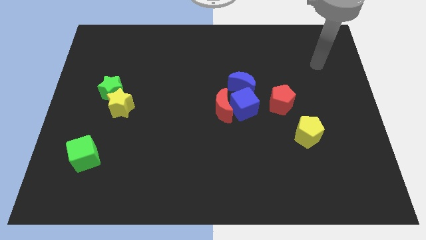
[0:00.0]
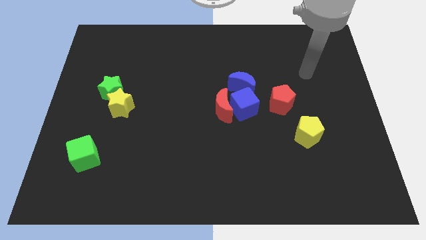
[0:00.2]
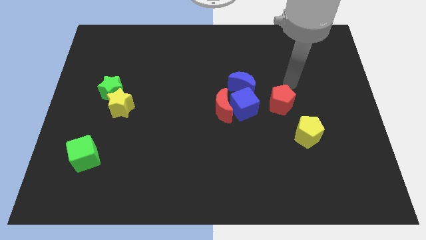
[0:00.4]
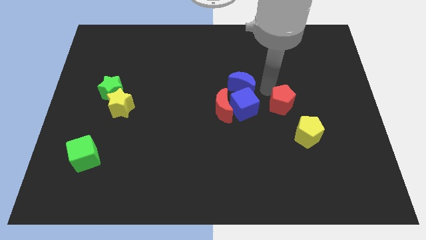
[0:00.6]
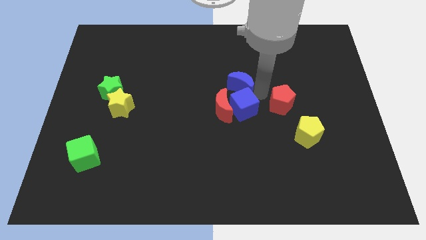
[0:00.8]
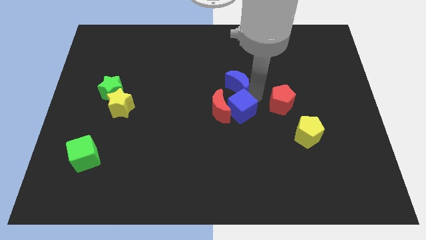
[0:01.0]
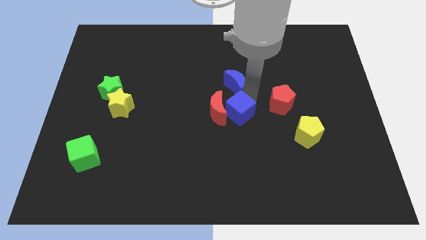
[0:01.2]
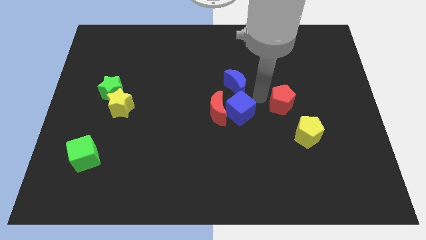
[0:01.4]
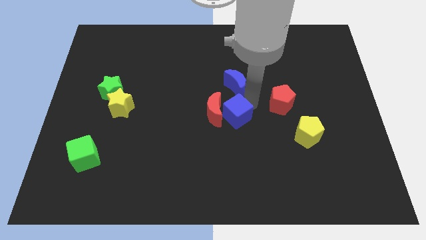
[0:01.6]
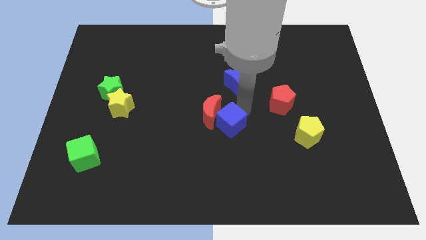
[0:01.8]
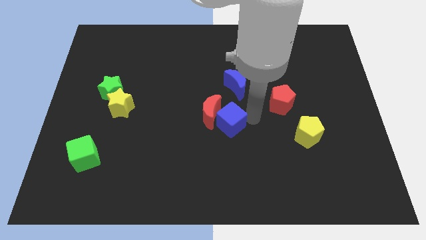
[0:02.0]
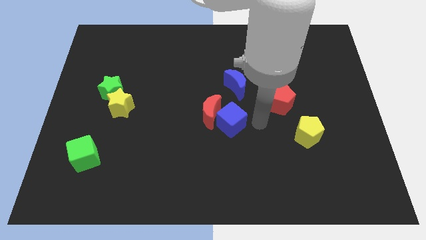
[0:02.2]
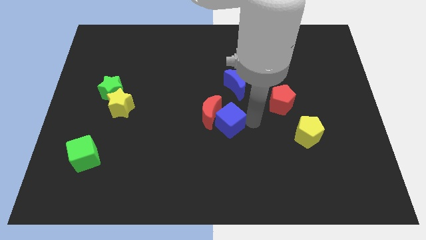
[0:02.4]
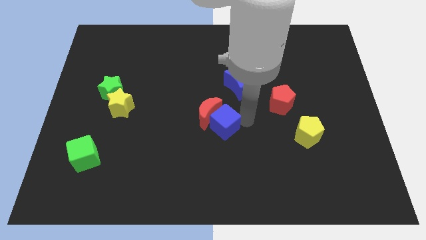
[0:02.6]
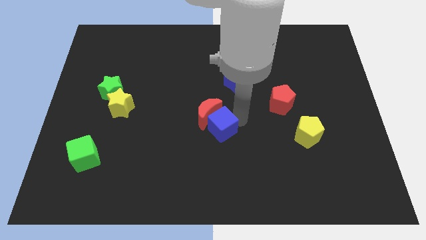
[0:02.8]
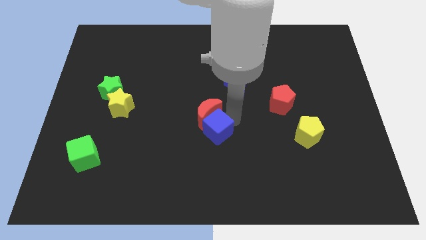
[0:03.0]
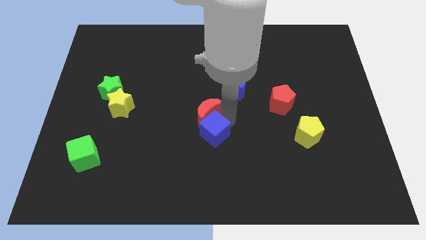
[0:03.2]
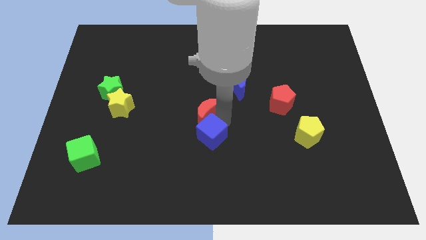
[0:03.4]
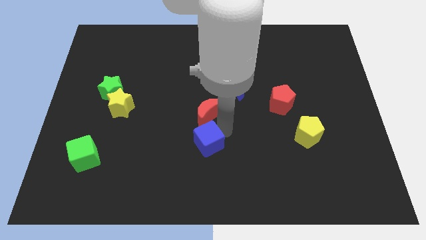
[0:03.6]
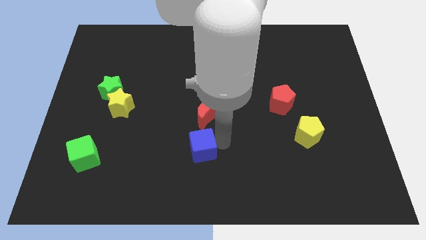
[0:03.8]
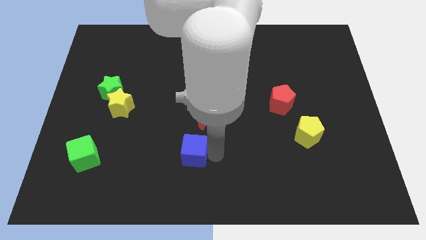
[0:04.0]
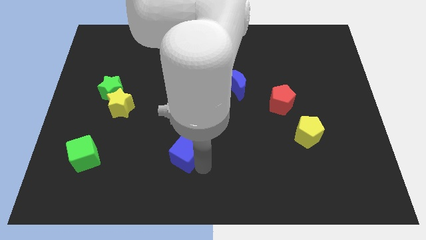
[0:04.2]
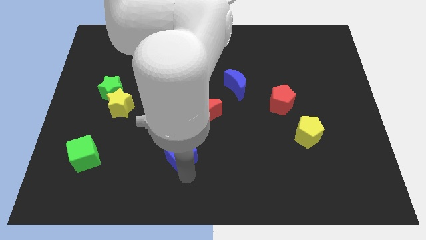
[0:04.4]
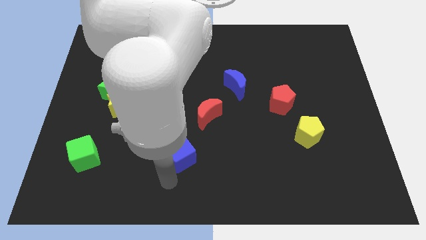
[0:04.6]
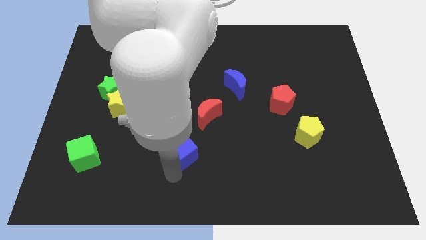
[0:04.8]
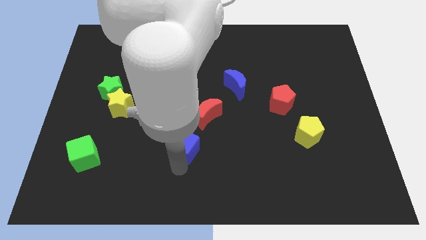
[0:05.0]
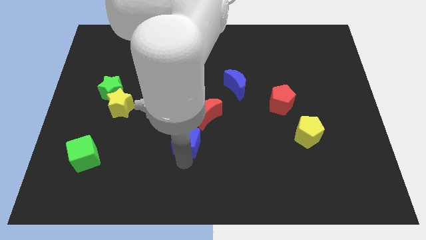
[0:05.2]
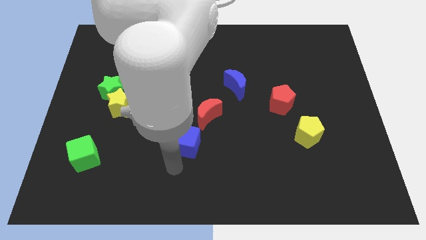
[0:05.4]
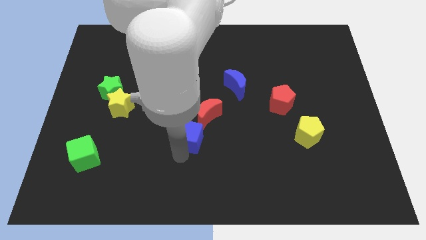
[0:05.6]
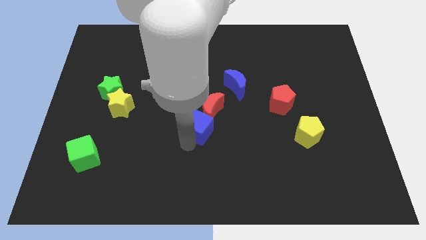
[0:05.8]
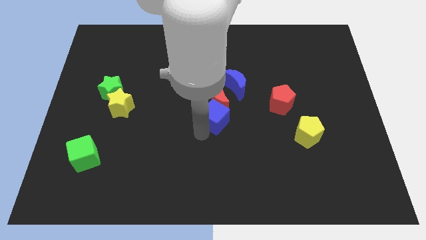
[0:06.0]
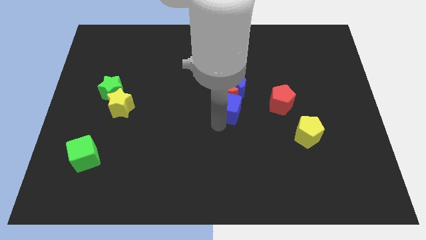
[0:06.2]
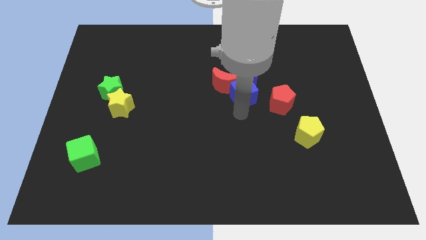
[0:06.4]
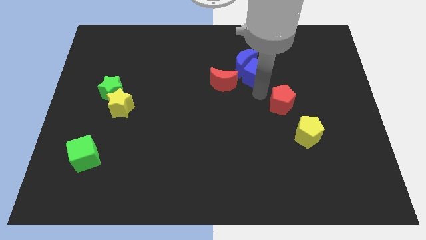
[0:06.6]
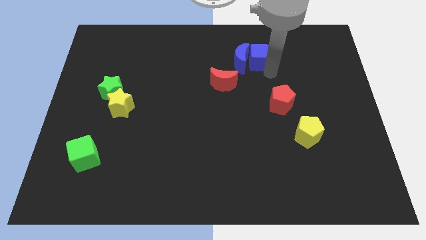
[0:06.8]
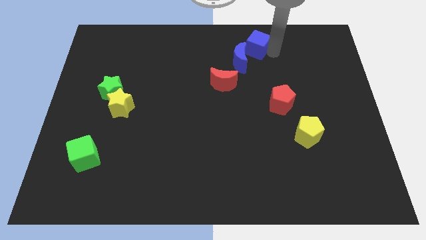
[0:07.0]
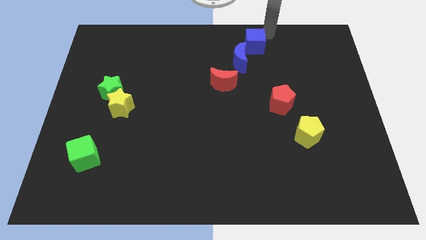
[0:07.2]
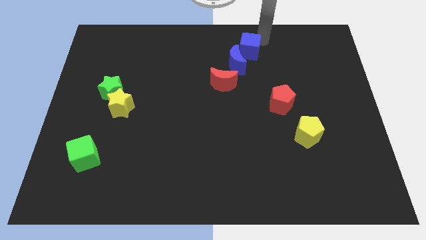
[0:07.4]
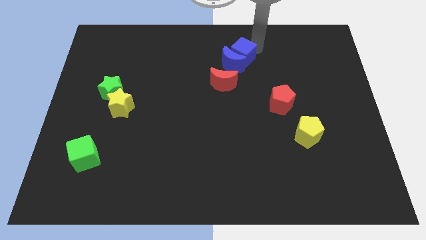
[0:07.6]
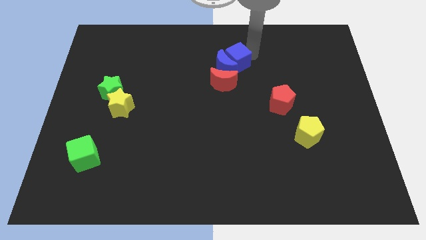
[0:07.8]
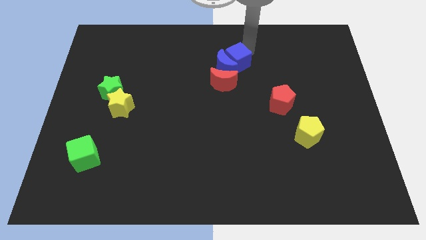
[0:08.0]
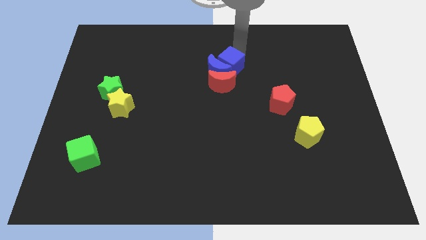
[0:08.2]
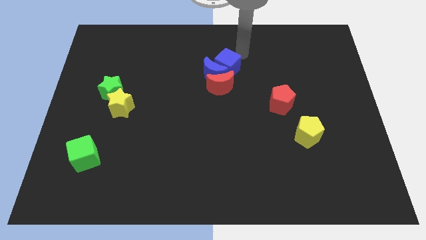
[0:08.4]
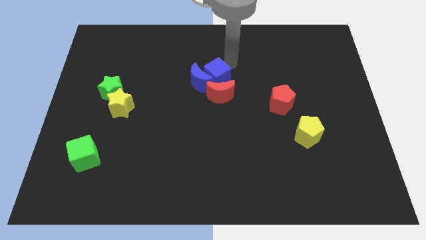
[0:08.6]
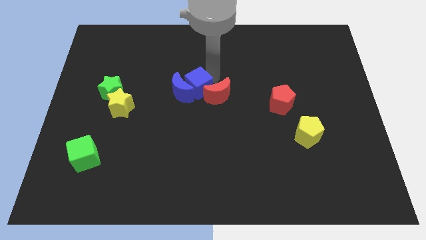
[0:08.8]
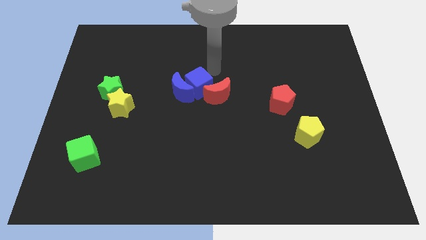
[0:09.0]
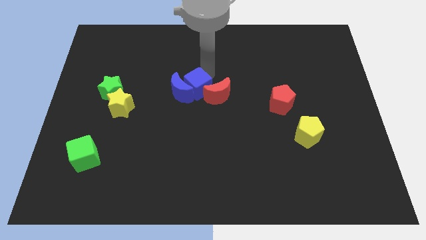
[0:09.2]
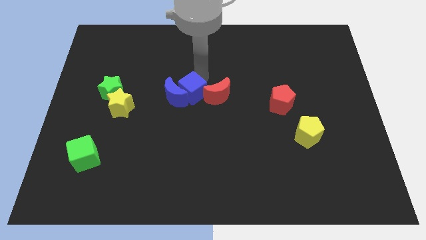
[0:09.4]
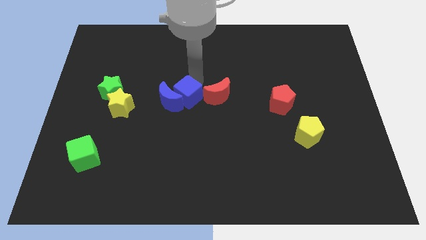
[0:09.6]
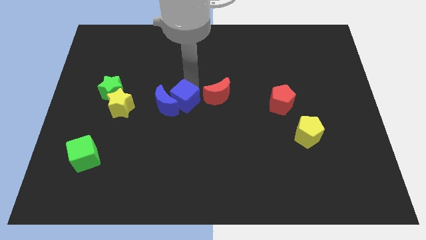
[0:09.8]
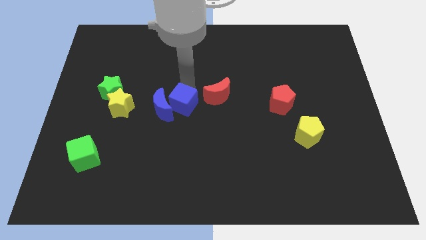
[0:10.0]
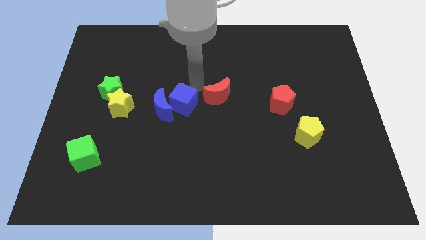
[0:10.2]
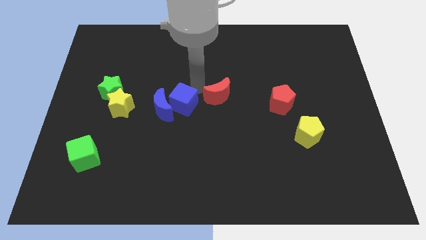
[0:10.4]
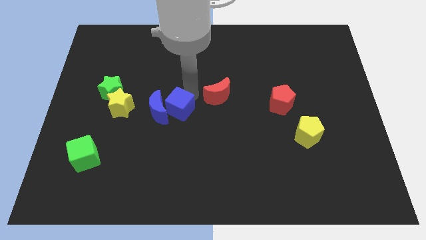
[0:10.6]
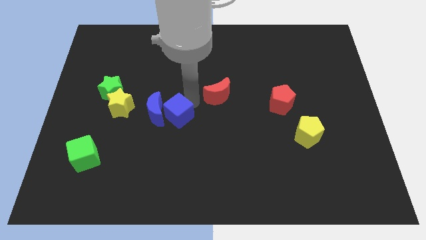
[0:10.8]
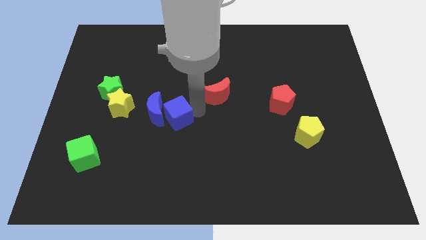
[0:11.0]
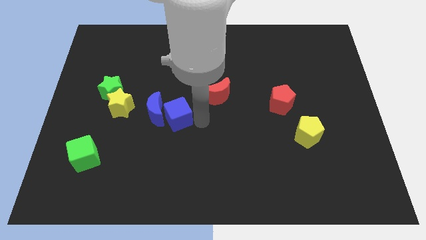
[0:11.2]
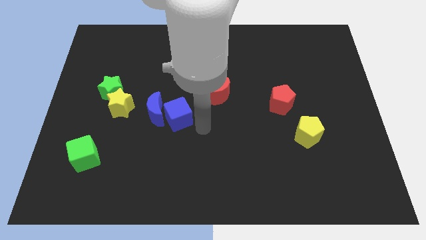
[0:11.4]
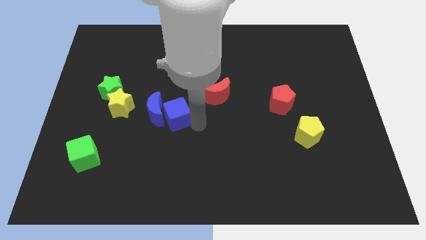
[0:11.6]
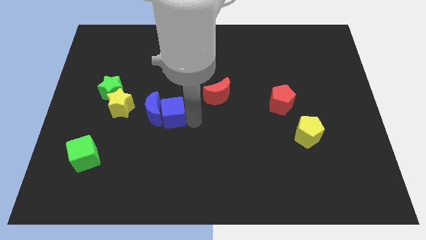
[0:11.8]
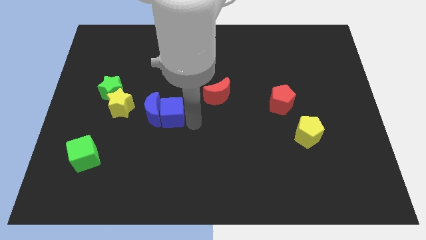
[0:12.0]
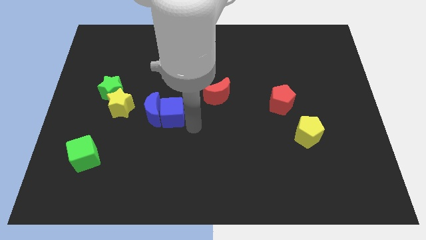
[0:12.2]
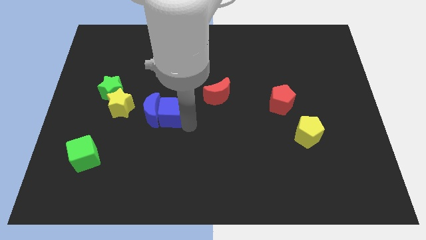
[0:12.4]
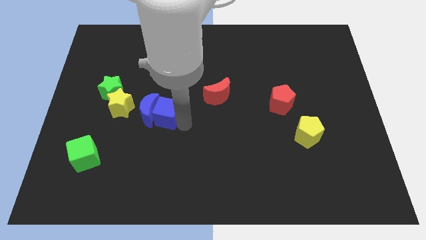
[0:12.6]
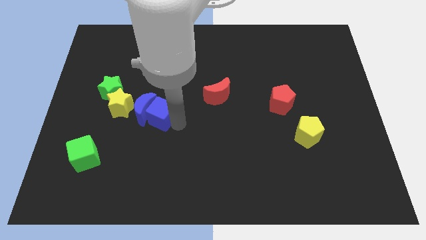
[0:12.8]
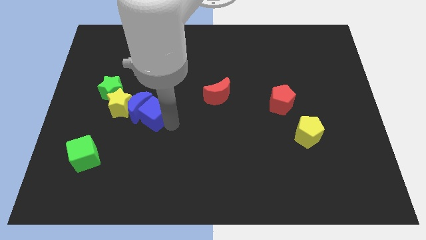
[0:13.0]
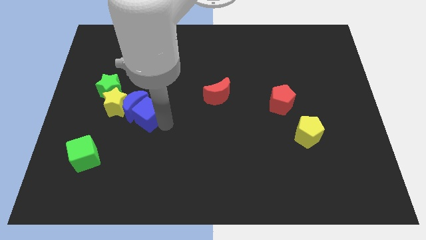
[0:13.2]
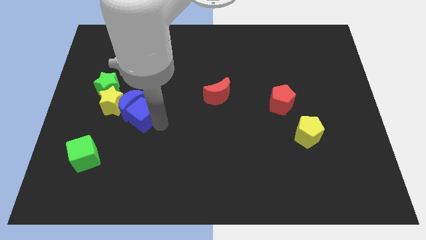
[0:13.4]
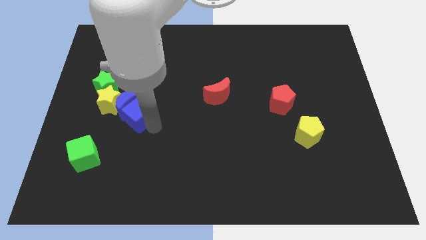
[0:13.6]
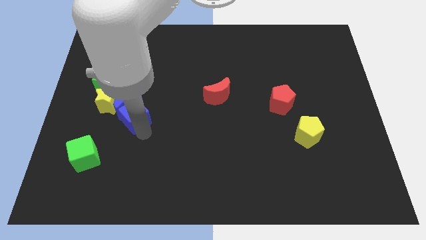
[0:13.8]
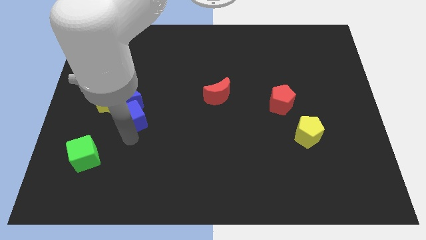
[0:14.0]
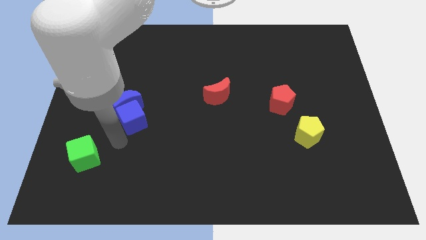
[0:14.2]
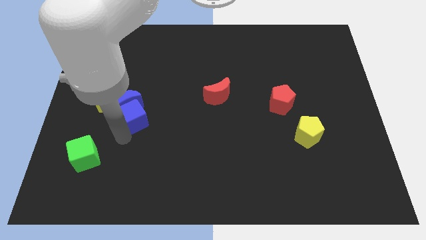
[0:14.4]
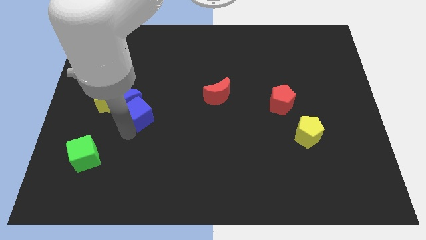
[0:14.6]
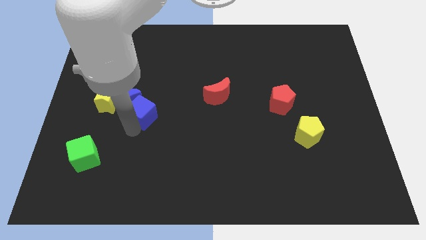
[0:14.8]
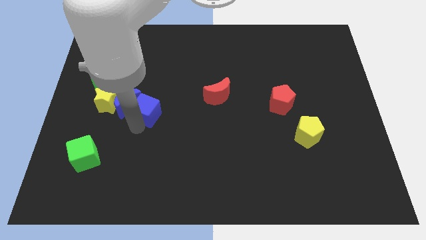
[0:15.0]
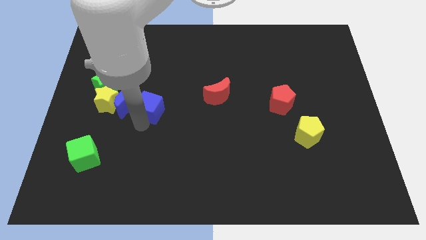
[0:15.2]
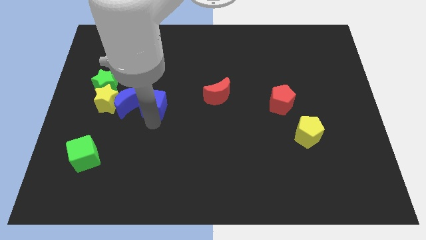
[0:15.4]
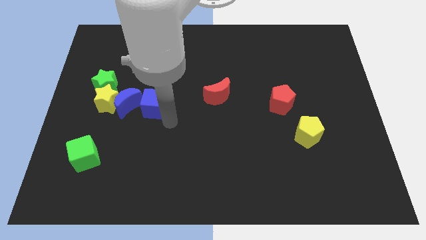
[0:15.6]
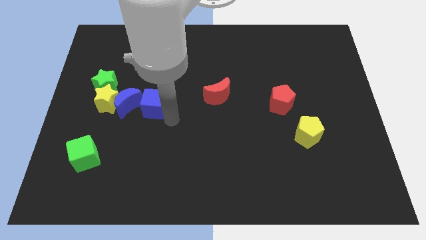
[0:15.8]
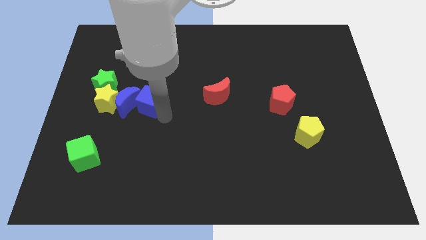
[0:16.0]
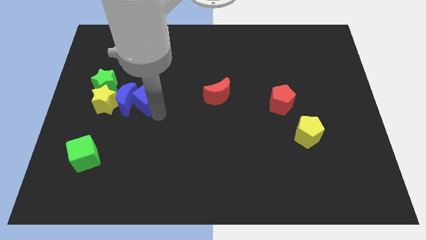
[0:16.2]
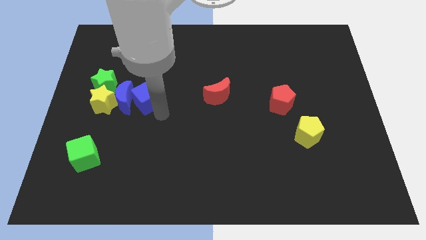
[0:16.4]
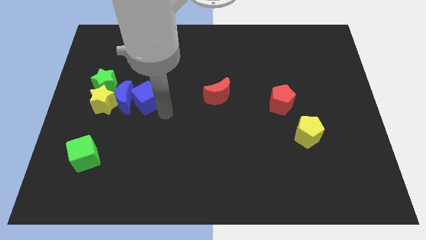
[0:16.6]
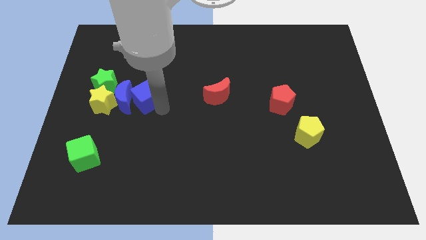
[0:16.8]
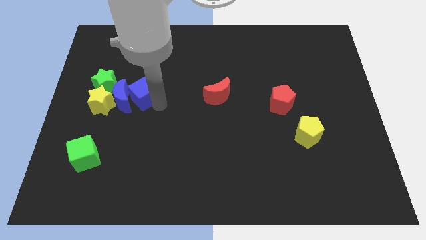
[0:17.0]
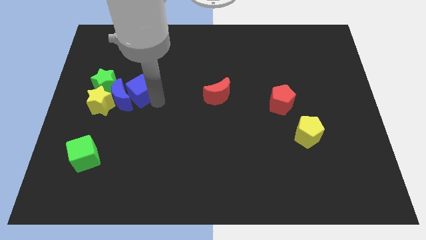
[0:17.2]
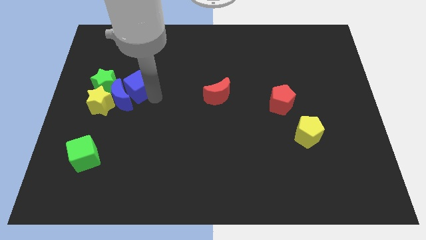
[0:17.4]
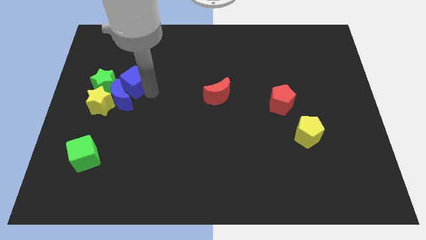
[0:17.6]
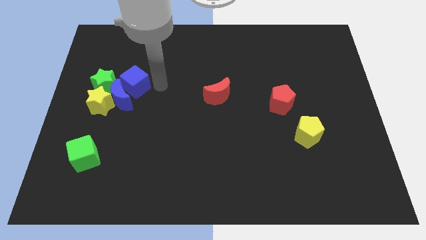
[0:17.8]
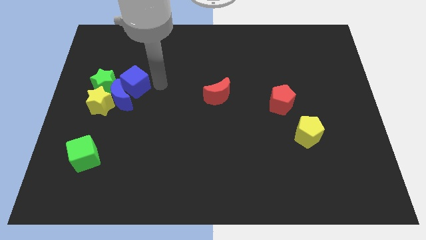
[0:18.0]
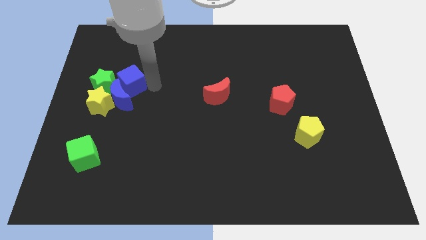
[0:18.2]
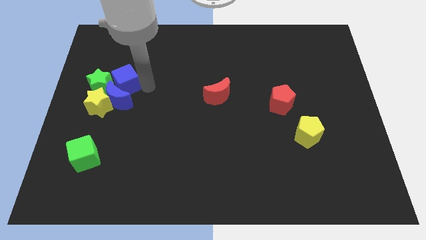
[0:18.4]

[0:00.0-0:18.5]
slide the blue cube to the green star
